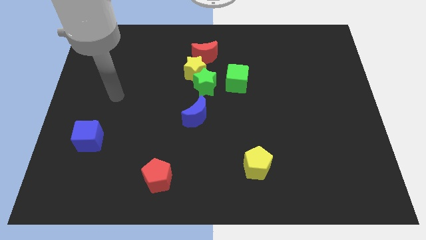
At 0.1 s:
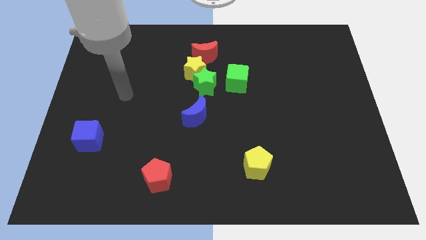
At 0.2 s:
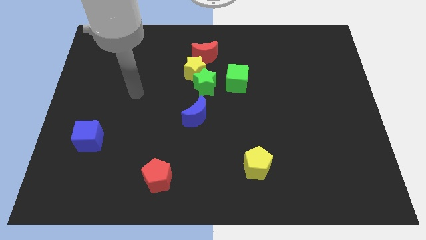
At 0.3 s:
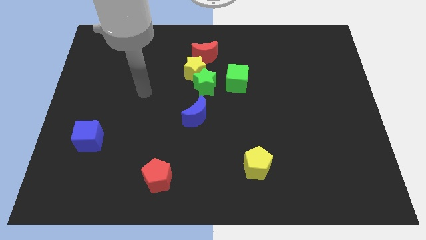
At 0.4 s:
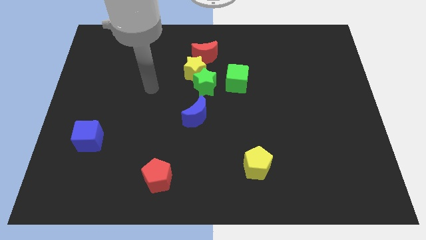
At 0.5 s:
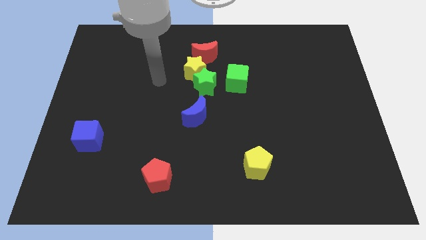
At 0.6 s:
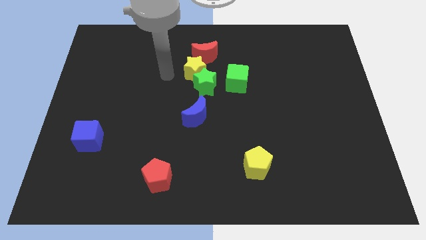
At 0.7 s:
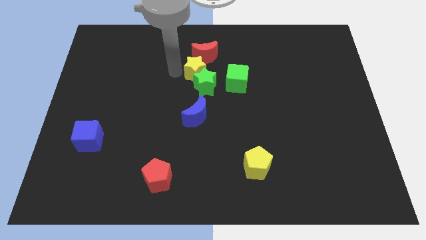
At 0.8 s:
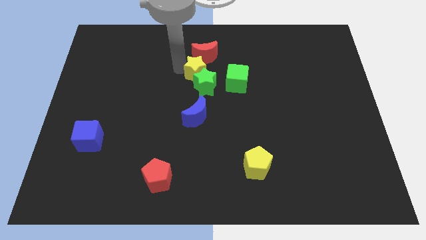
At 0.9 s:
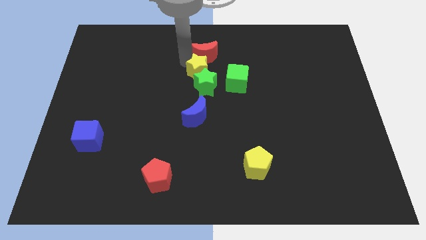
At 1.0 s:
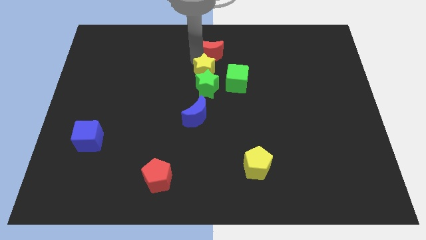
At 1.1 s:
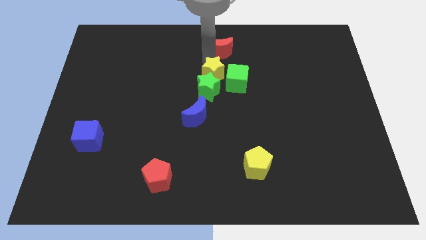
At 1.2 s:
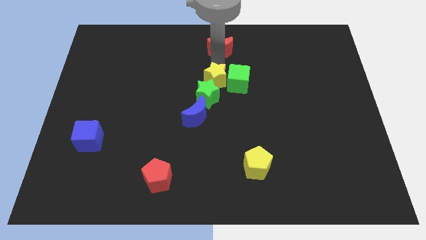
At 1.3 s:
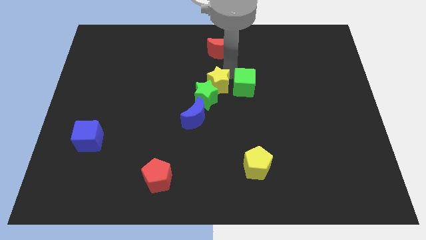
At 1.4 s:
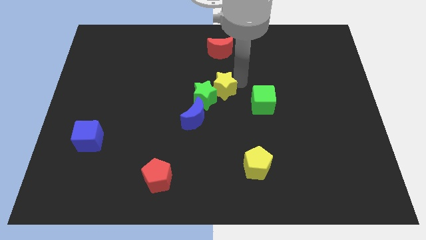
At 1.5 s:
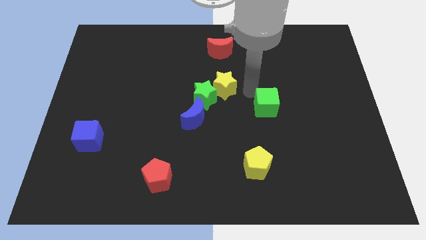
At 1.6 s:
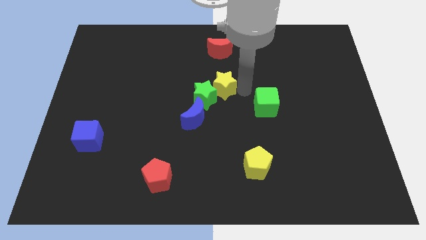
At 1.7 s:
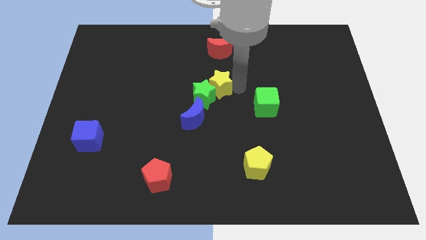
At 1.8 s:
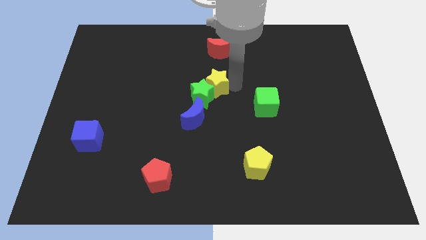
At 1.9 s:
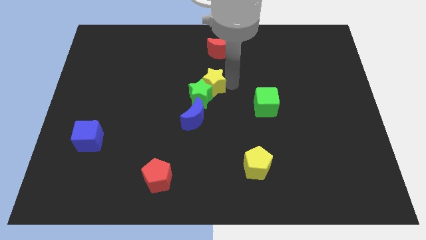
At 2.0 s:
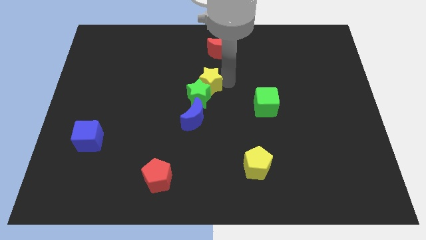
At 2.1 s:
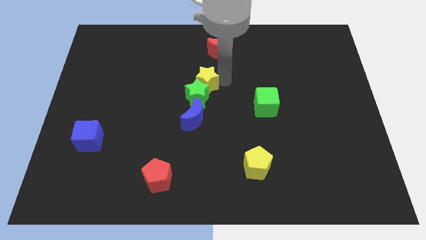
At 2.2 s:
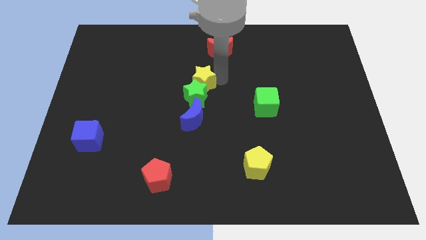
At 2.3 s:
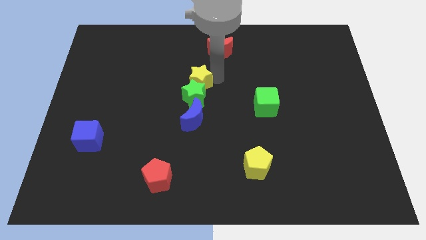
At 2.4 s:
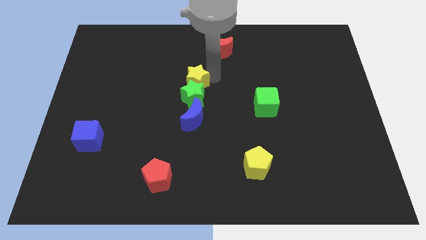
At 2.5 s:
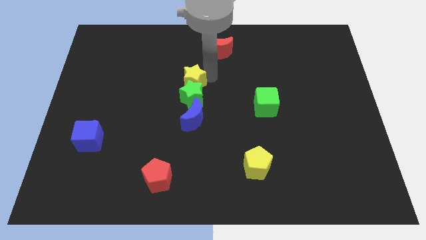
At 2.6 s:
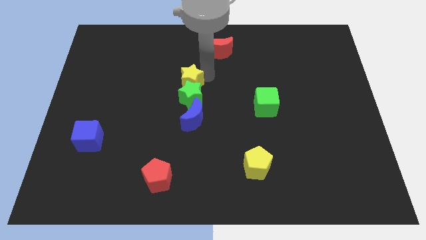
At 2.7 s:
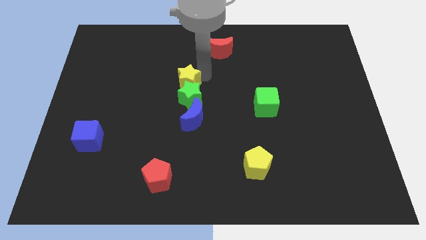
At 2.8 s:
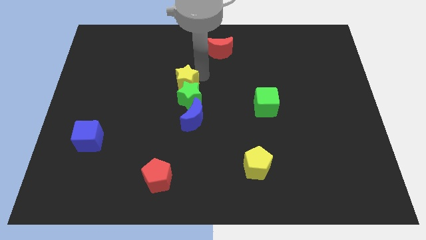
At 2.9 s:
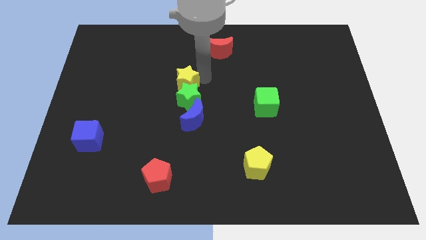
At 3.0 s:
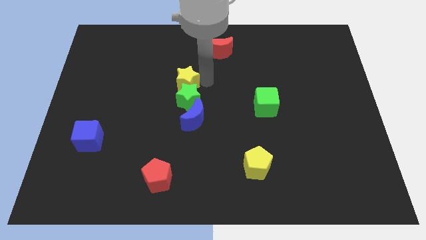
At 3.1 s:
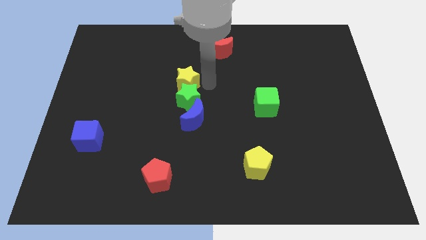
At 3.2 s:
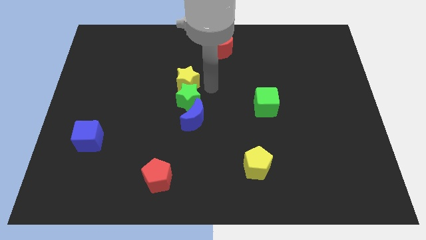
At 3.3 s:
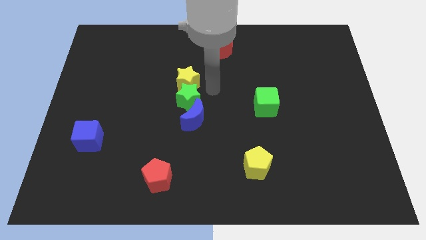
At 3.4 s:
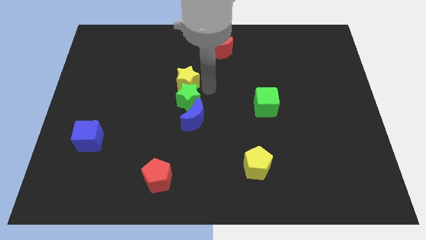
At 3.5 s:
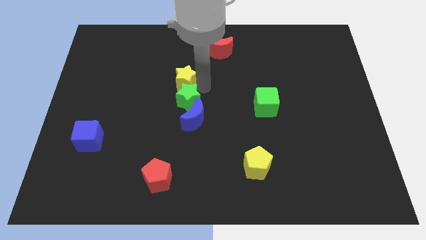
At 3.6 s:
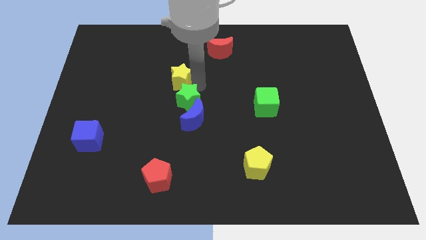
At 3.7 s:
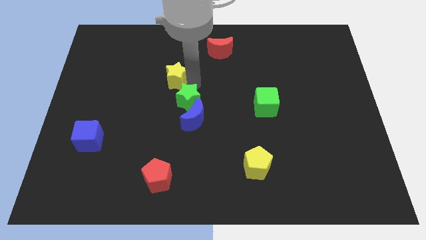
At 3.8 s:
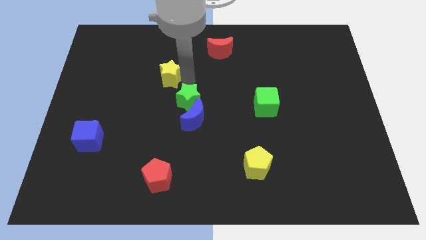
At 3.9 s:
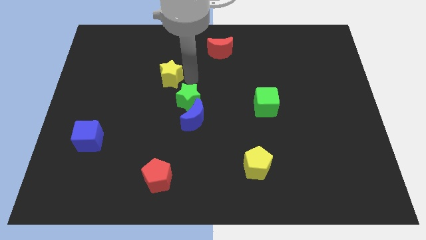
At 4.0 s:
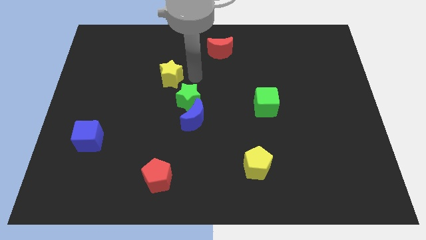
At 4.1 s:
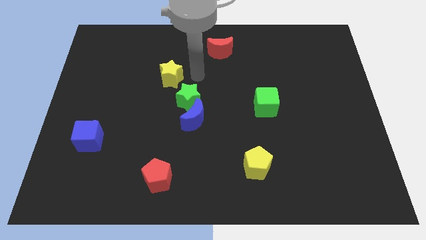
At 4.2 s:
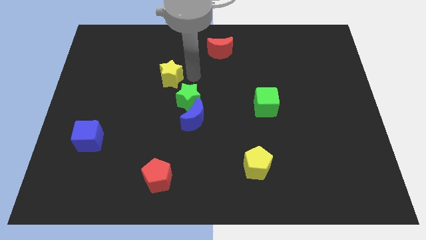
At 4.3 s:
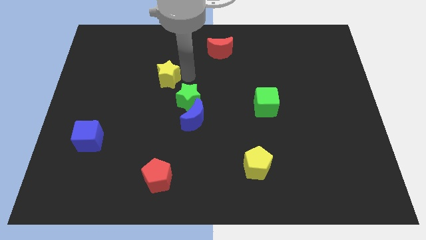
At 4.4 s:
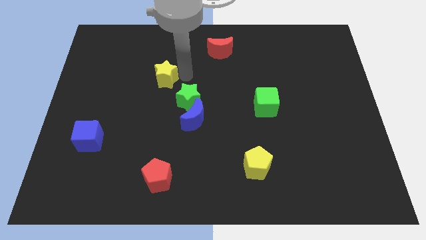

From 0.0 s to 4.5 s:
separate the yellow star from the green star and red moon

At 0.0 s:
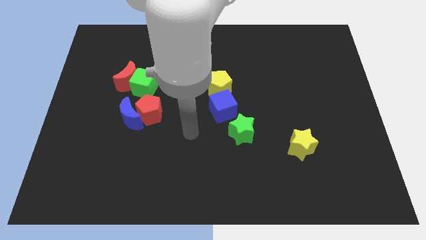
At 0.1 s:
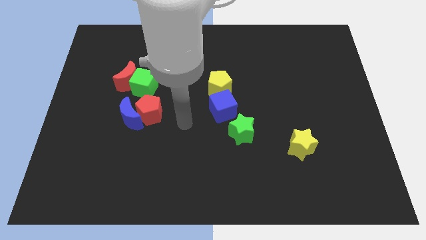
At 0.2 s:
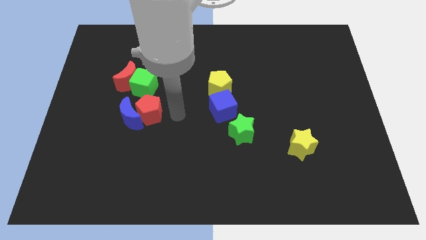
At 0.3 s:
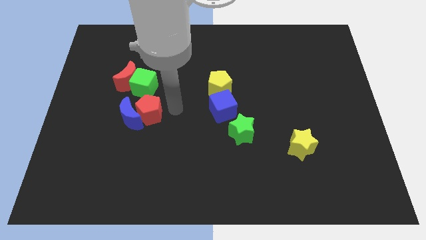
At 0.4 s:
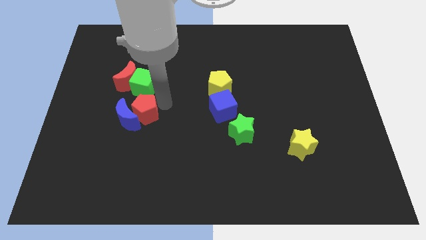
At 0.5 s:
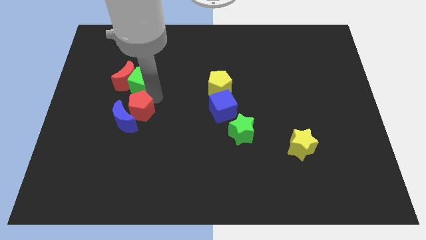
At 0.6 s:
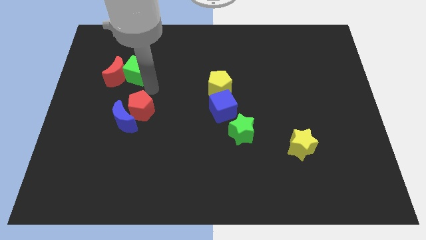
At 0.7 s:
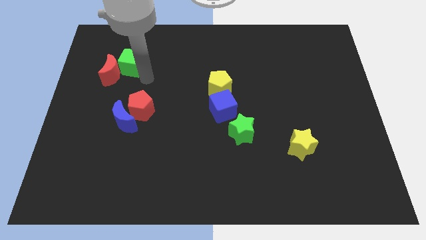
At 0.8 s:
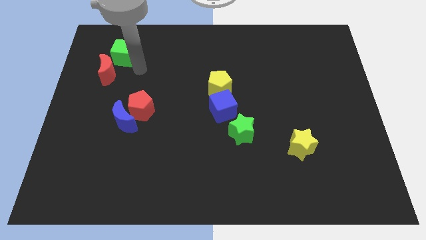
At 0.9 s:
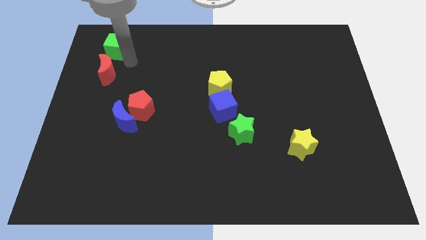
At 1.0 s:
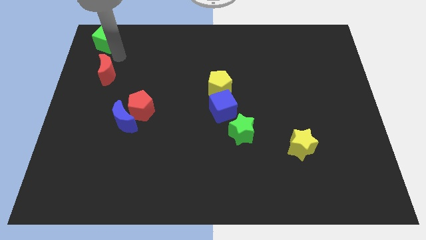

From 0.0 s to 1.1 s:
move the red moon away from the green cube

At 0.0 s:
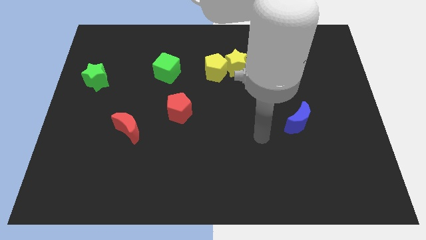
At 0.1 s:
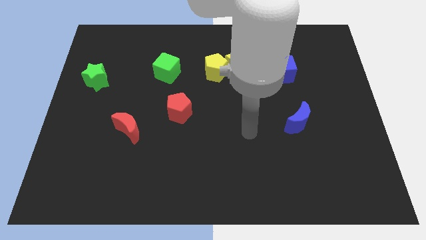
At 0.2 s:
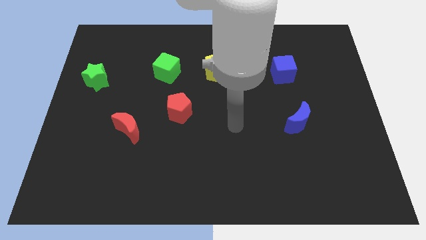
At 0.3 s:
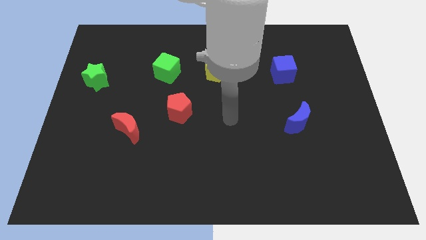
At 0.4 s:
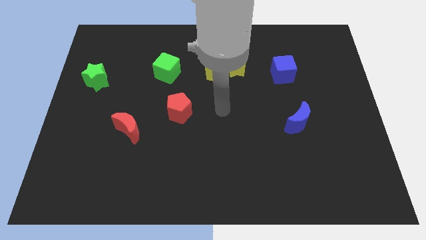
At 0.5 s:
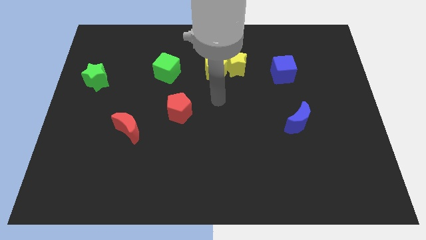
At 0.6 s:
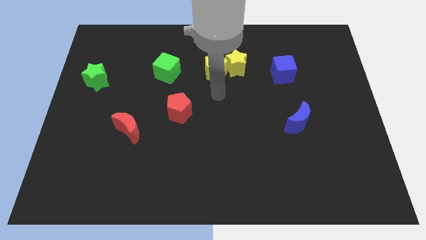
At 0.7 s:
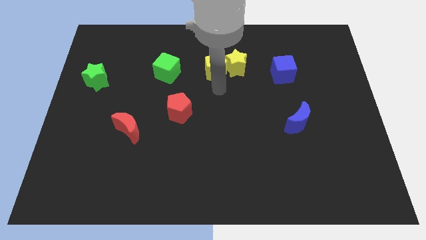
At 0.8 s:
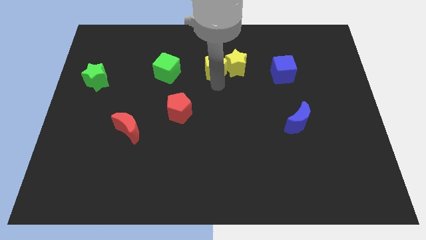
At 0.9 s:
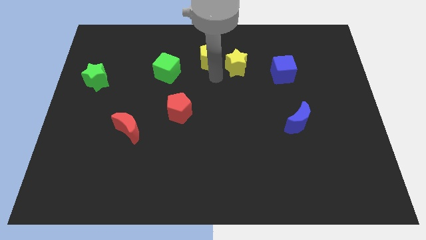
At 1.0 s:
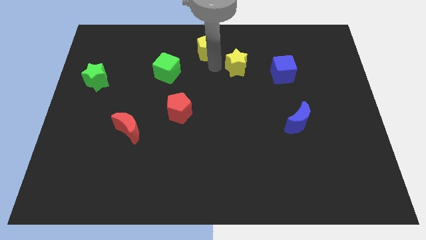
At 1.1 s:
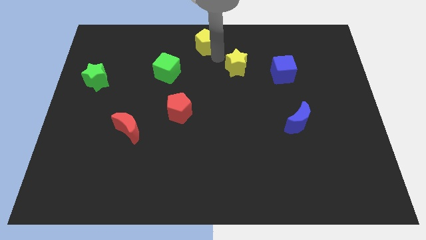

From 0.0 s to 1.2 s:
move the yellow star away from the yellow pentagon

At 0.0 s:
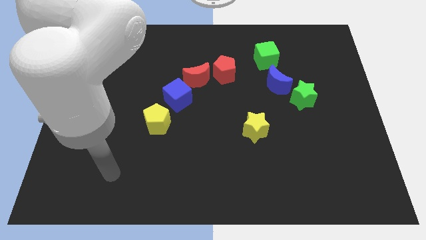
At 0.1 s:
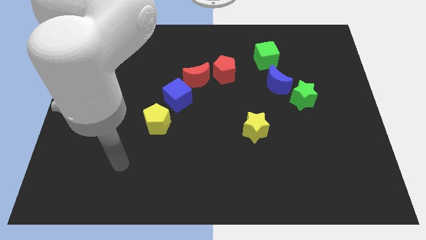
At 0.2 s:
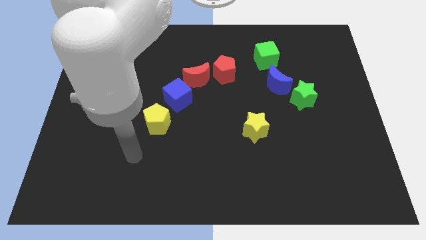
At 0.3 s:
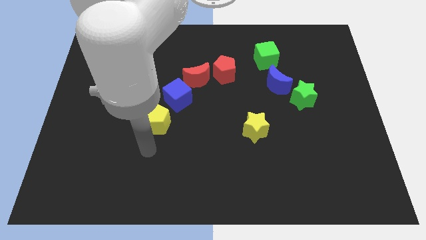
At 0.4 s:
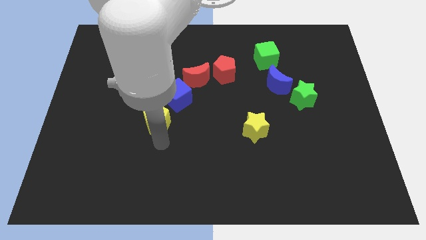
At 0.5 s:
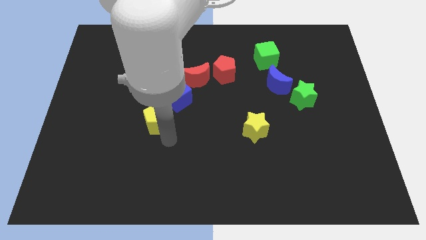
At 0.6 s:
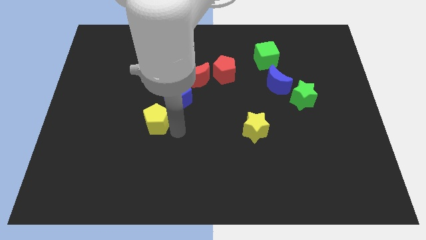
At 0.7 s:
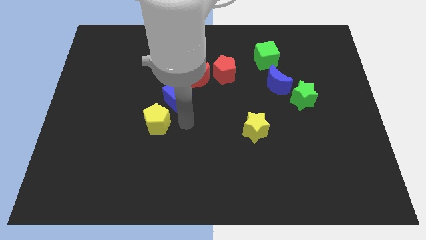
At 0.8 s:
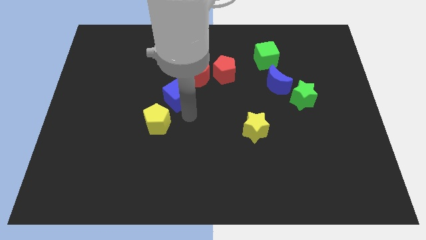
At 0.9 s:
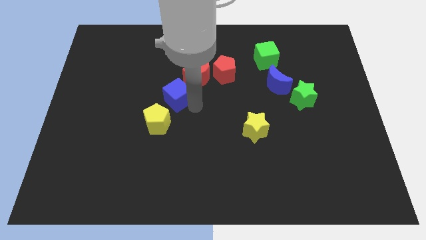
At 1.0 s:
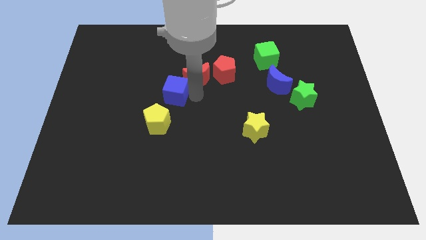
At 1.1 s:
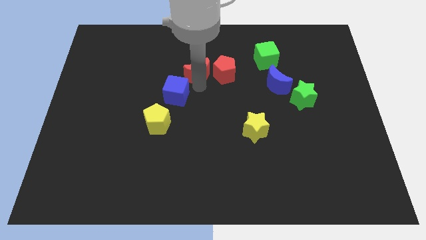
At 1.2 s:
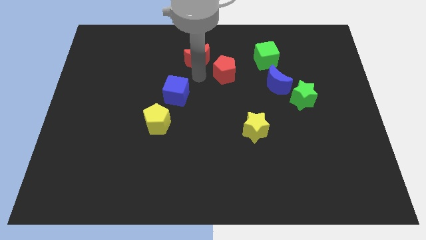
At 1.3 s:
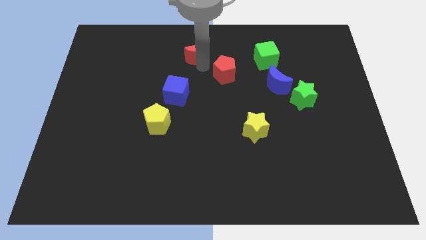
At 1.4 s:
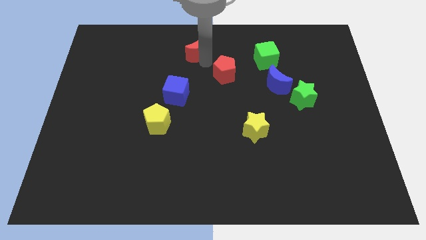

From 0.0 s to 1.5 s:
pull the red pentagon apart from the red moon

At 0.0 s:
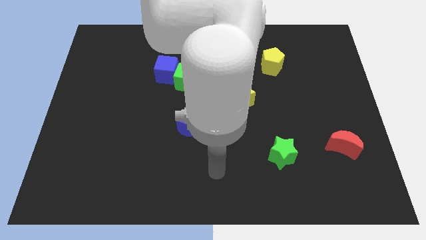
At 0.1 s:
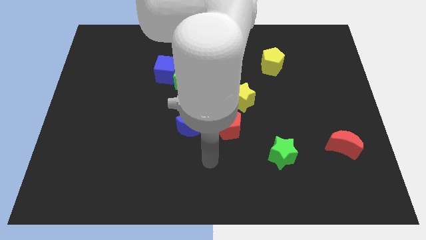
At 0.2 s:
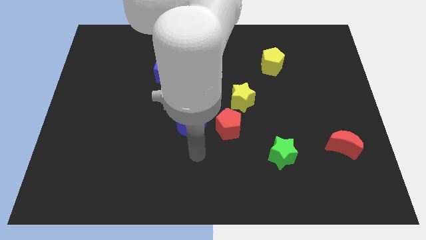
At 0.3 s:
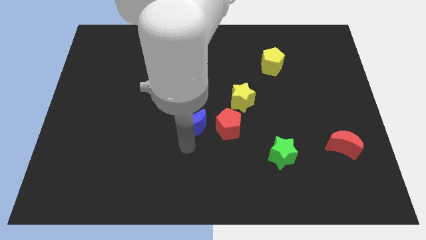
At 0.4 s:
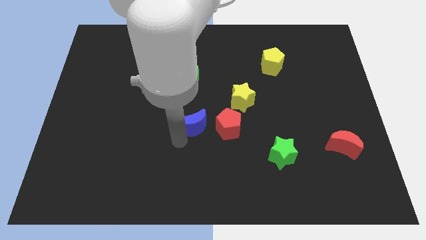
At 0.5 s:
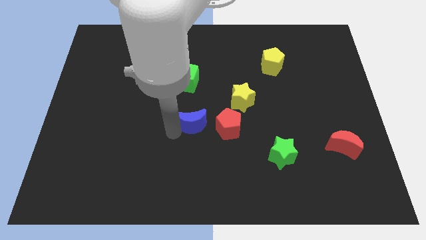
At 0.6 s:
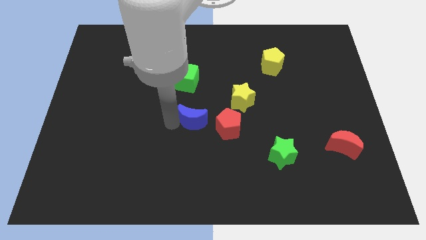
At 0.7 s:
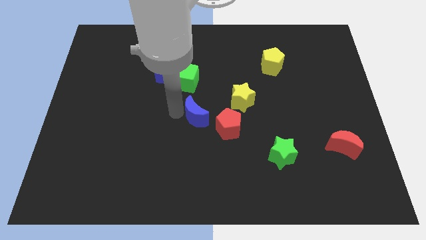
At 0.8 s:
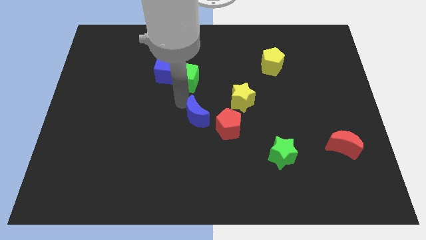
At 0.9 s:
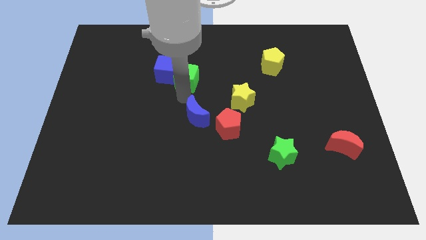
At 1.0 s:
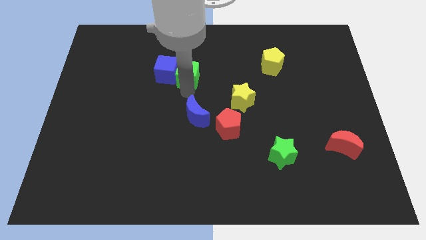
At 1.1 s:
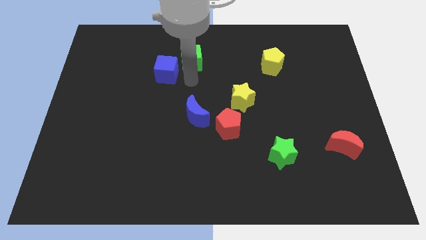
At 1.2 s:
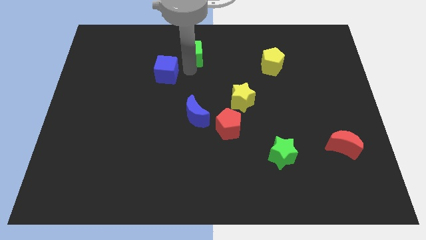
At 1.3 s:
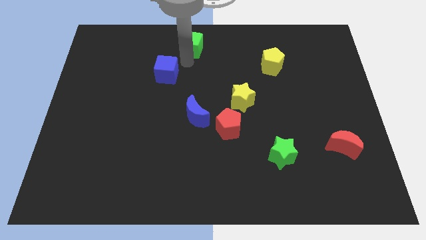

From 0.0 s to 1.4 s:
pull the blue cube apart from the green cube
